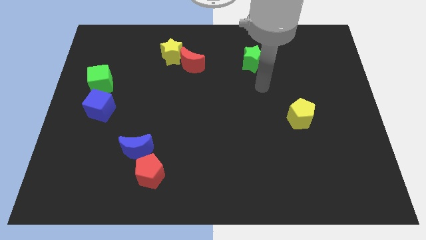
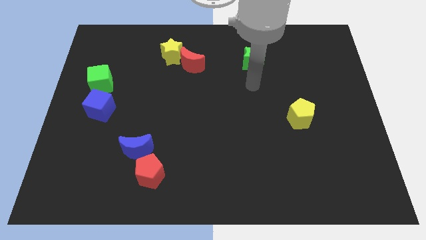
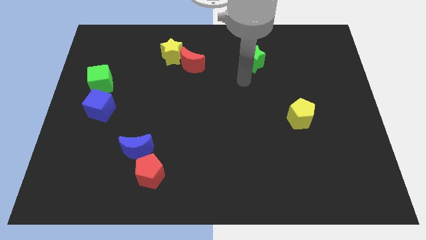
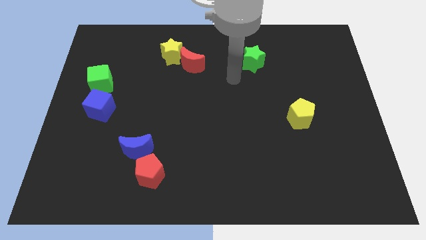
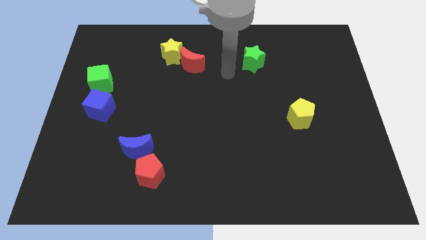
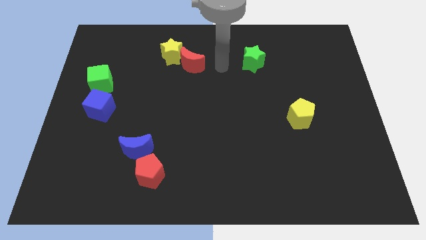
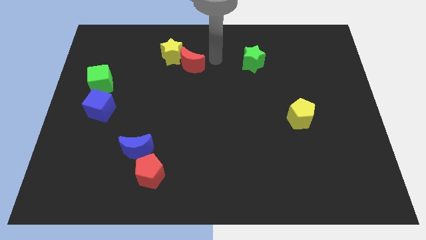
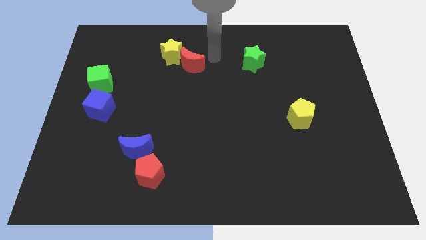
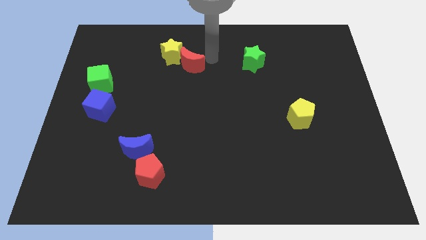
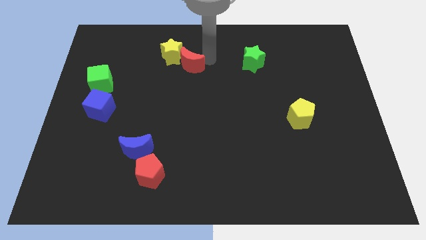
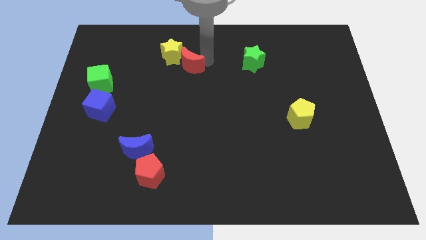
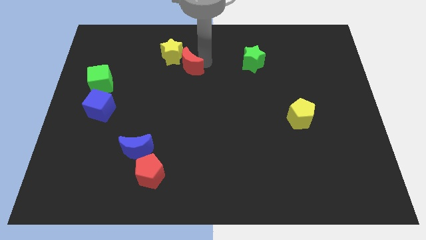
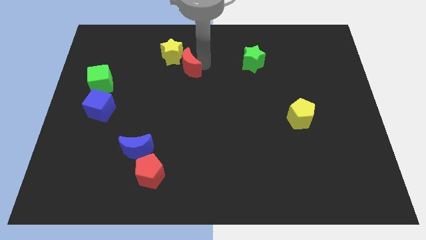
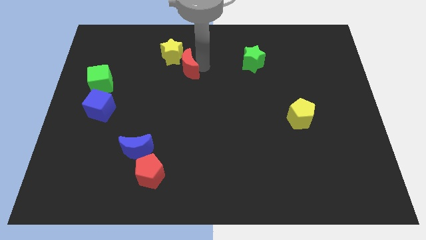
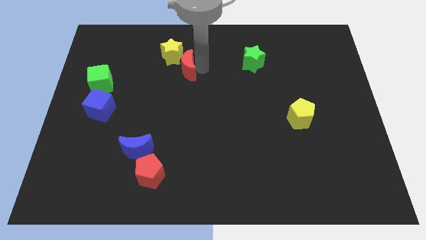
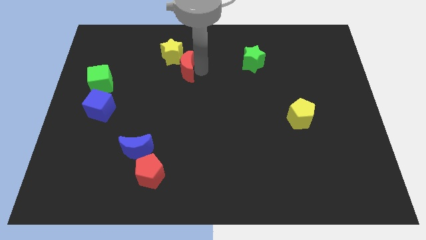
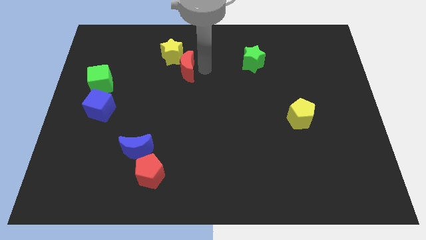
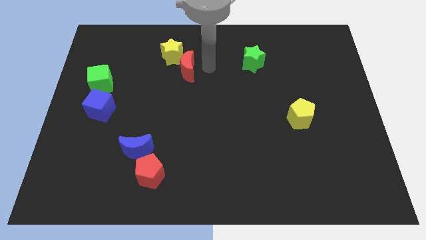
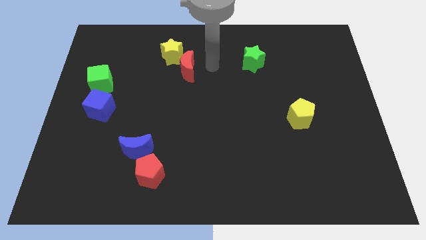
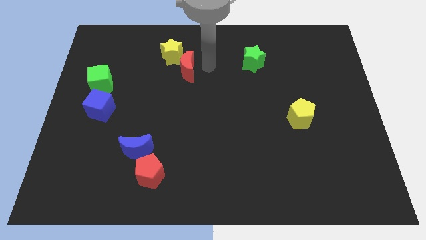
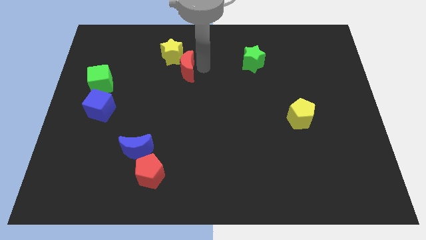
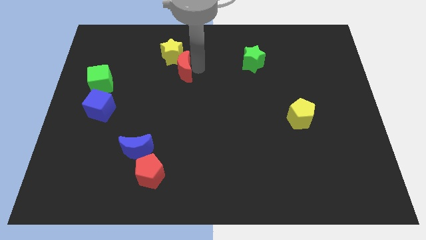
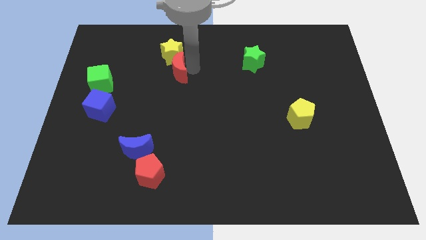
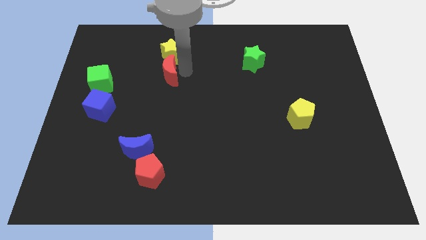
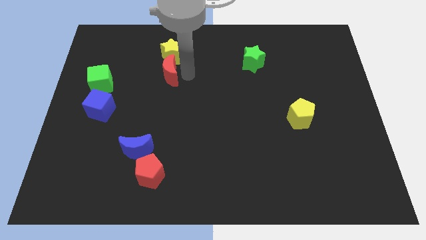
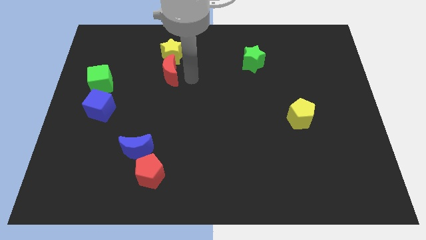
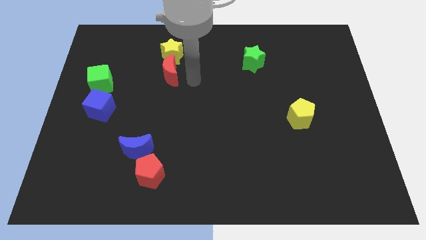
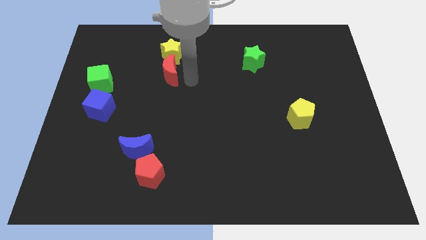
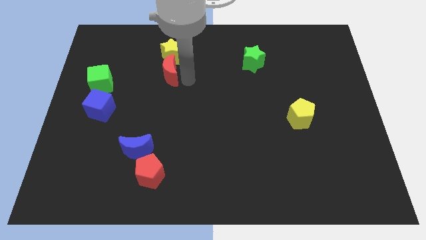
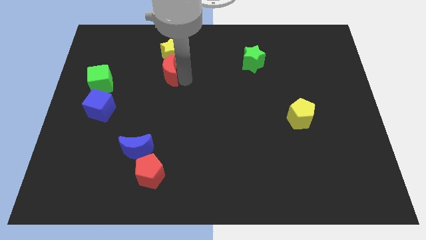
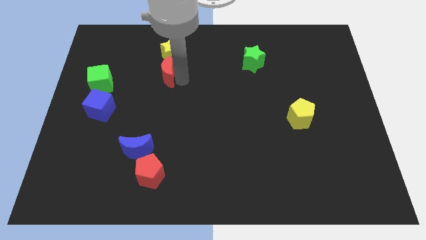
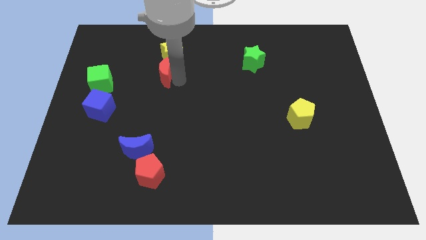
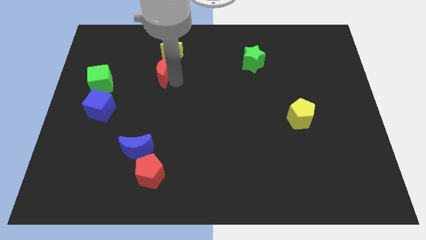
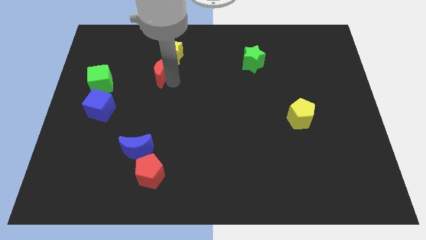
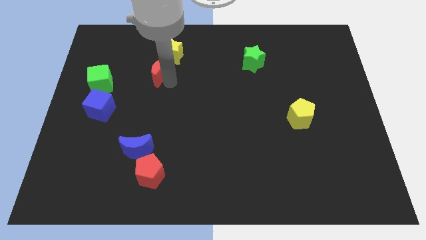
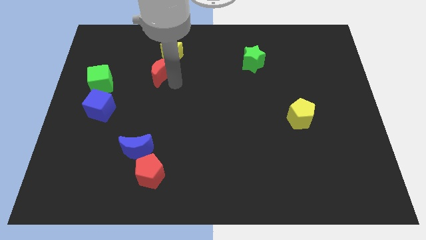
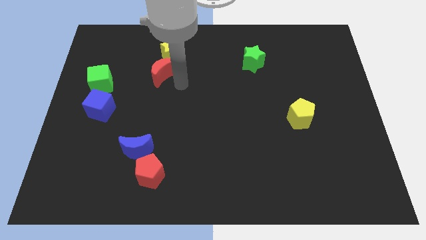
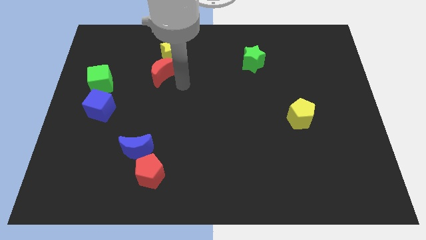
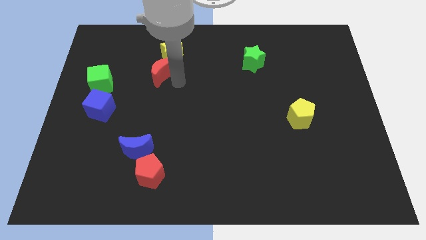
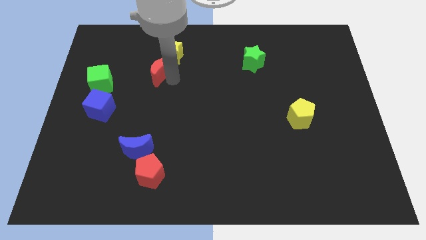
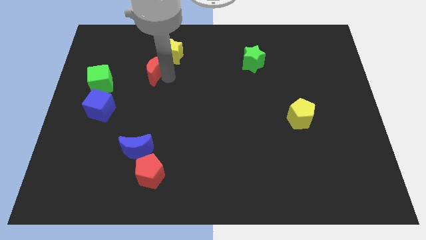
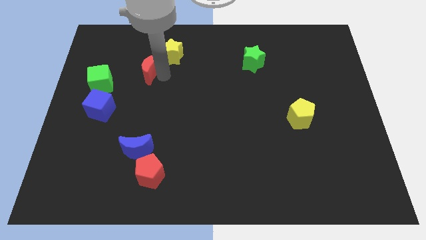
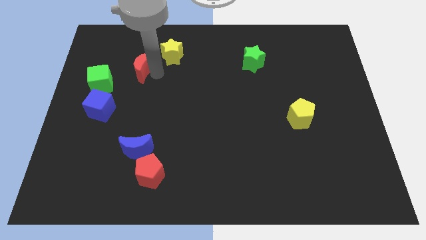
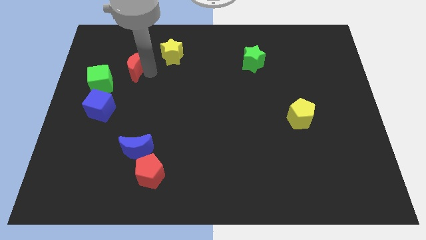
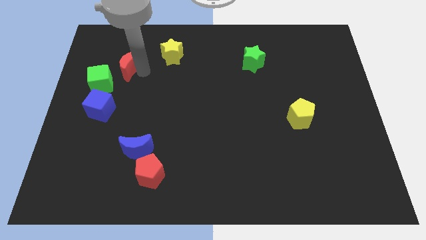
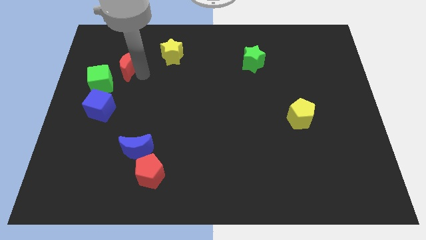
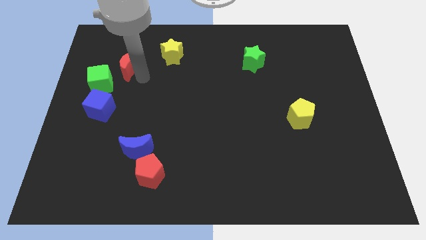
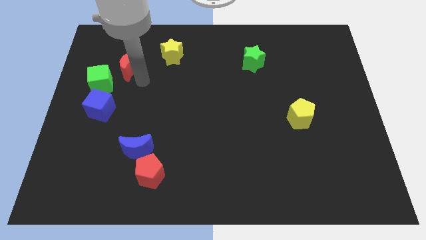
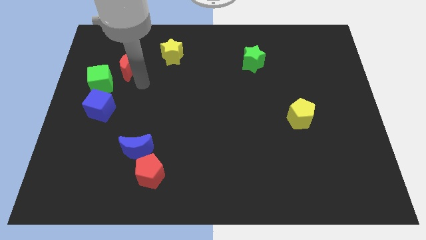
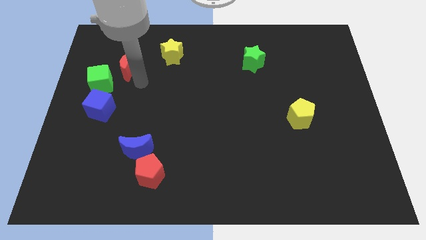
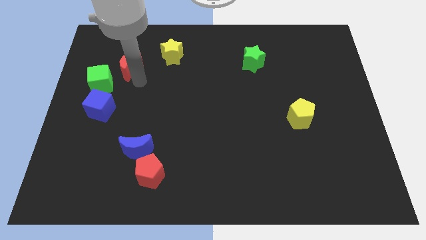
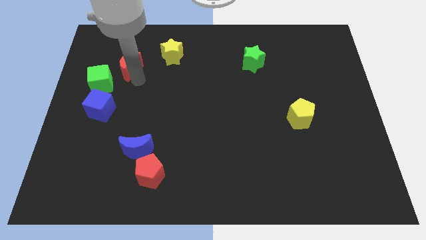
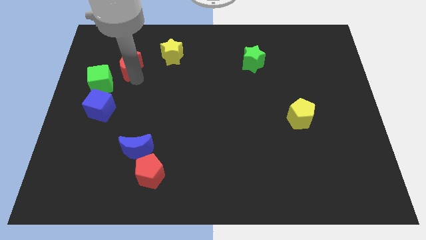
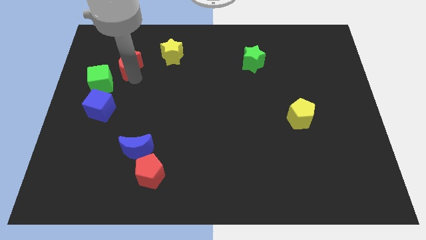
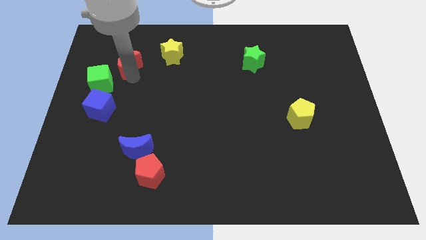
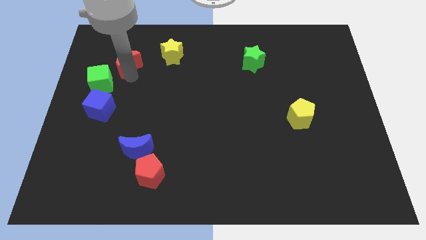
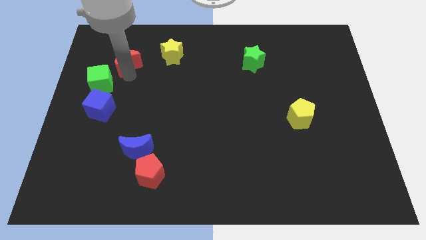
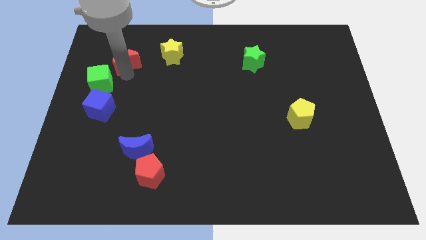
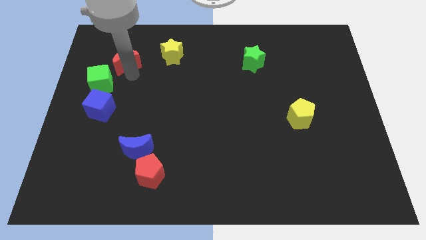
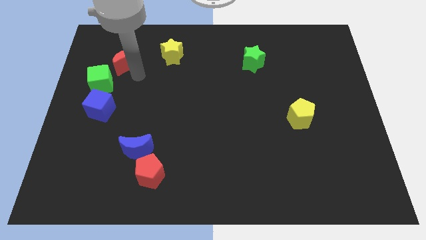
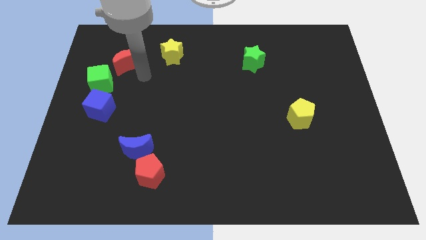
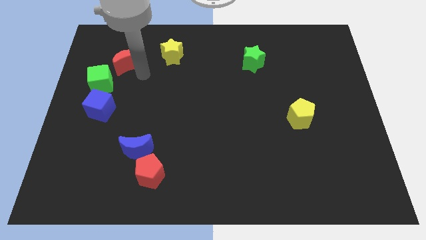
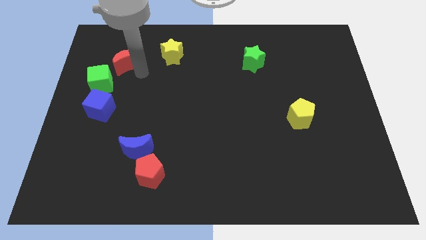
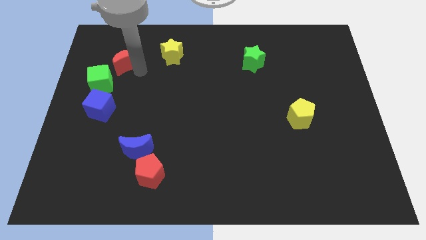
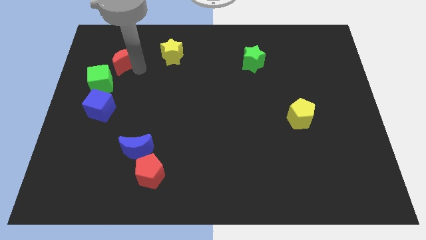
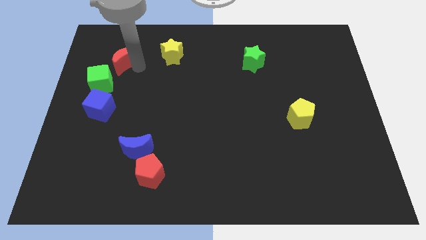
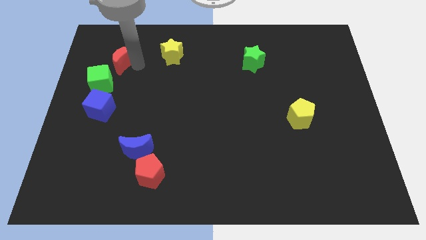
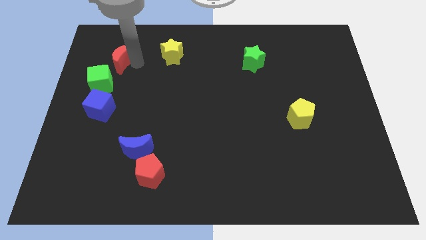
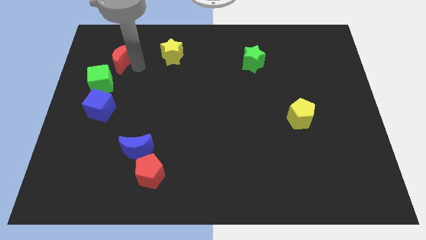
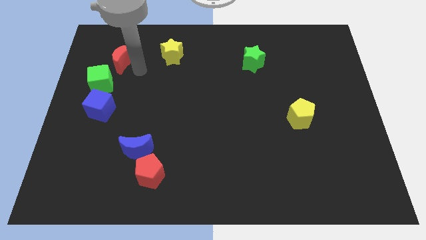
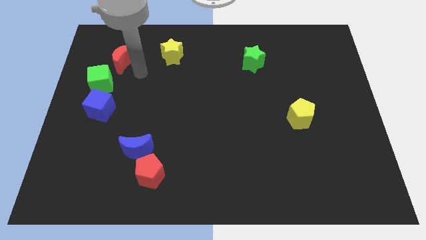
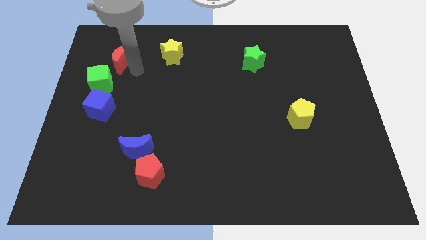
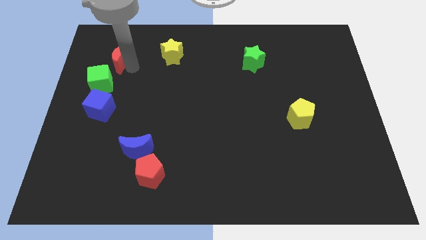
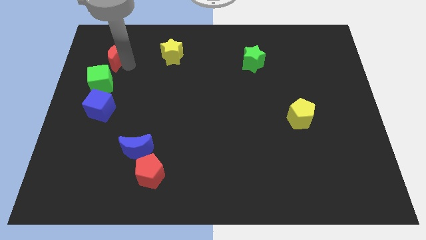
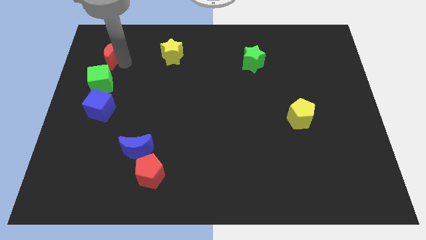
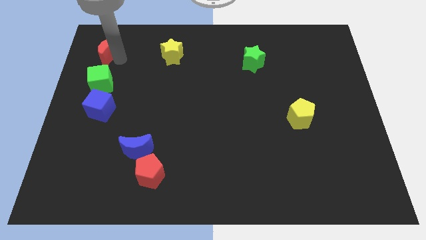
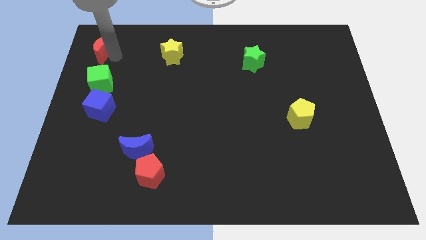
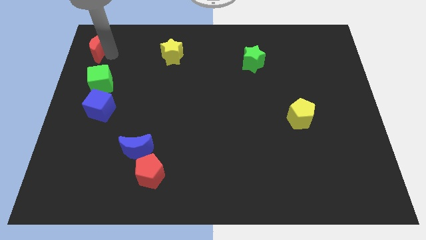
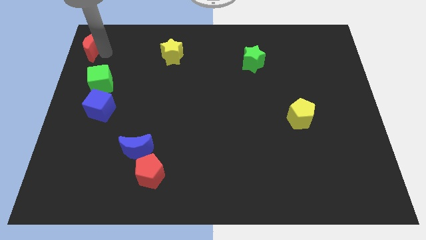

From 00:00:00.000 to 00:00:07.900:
push the red moon to the top left corner
